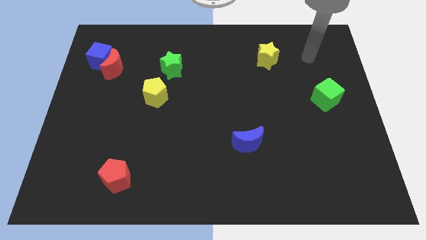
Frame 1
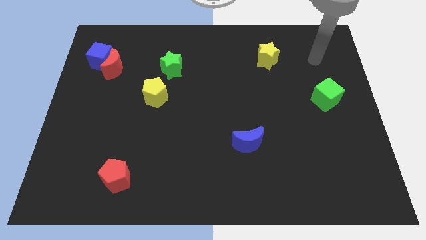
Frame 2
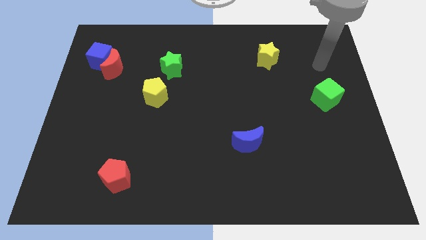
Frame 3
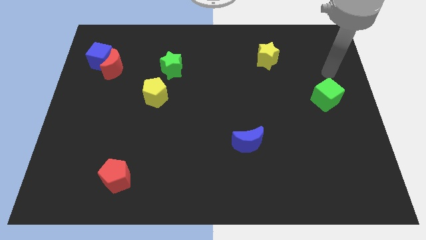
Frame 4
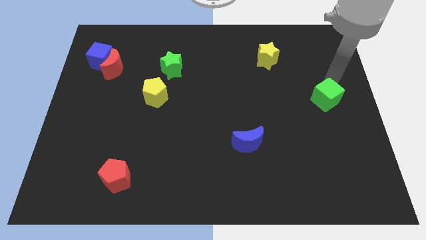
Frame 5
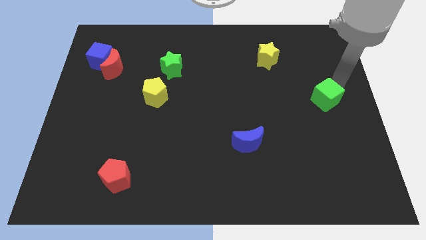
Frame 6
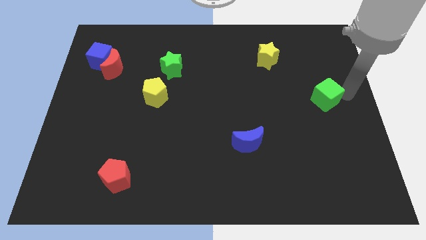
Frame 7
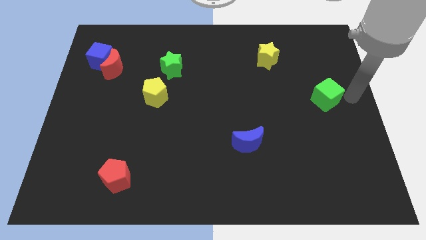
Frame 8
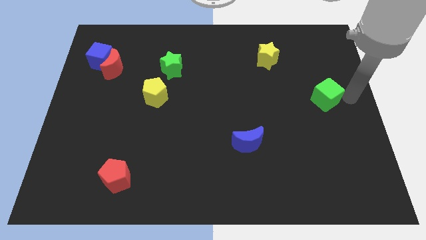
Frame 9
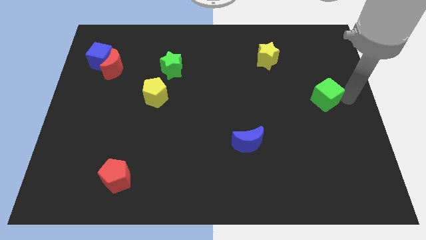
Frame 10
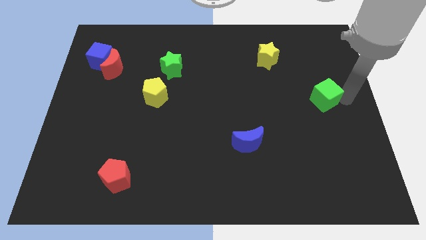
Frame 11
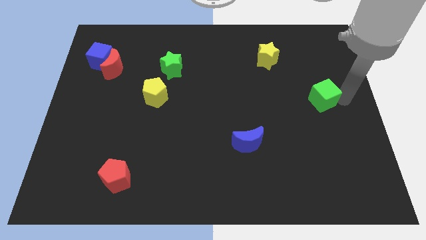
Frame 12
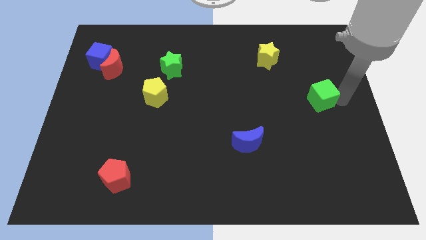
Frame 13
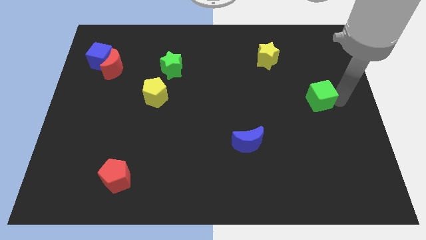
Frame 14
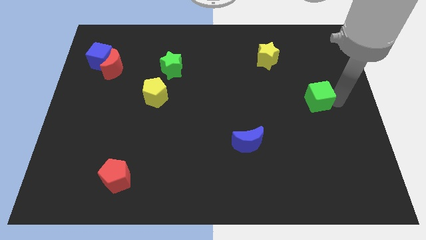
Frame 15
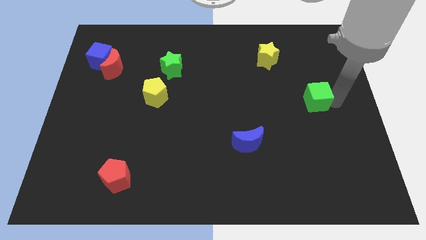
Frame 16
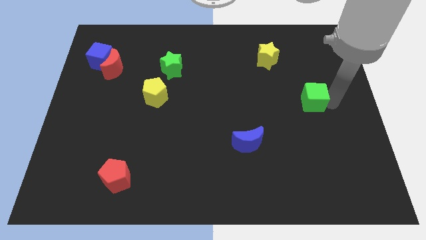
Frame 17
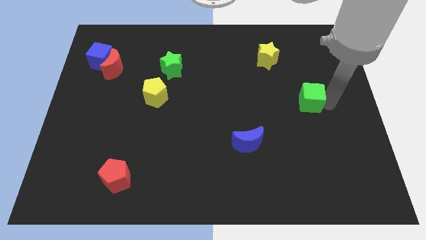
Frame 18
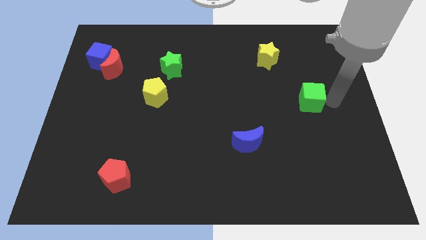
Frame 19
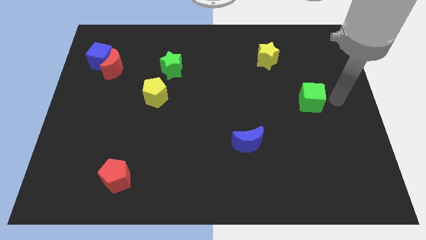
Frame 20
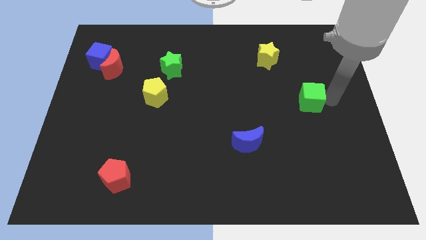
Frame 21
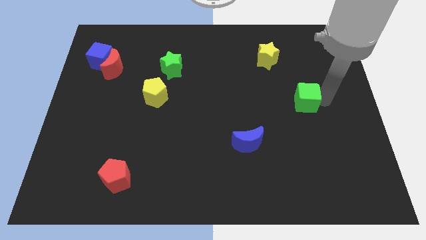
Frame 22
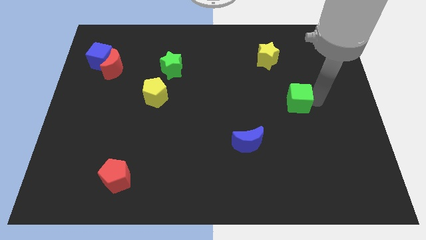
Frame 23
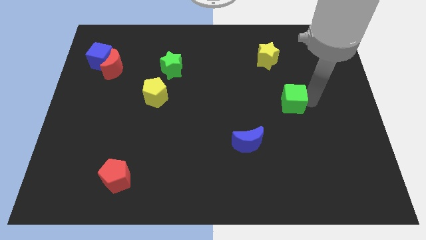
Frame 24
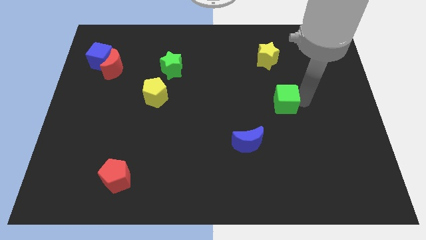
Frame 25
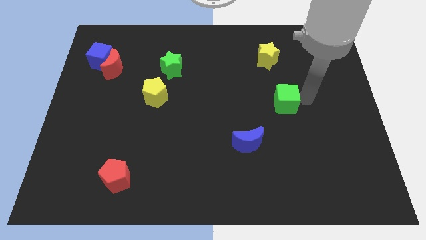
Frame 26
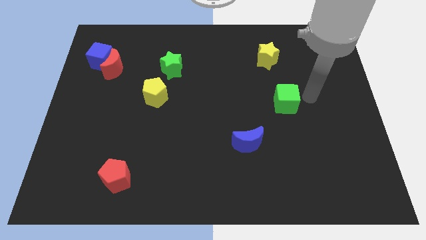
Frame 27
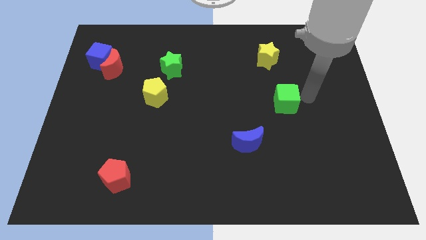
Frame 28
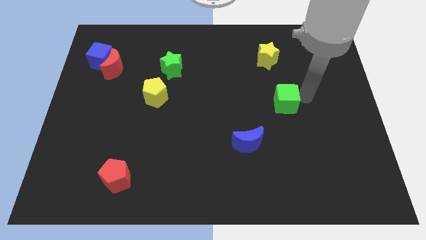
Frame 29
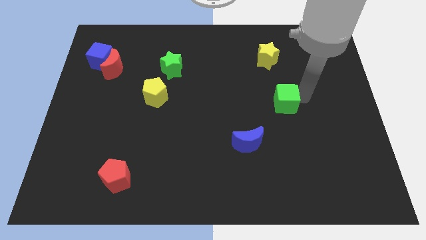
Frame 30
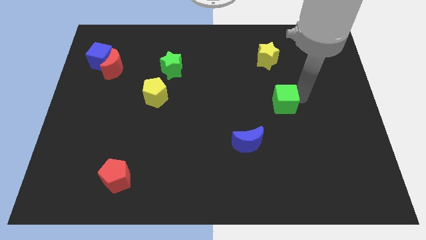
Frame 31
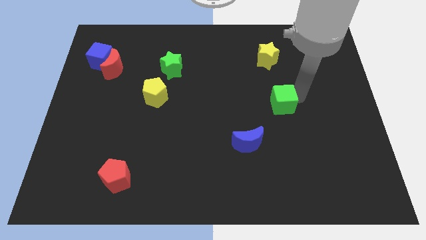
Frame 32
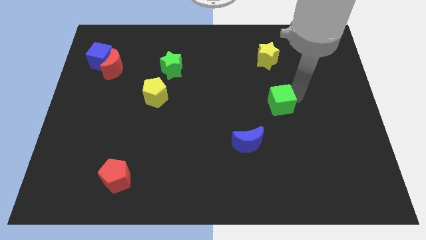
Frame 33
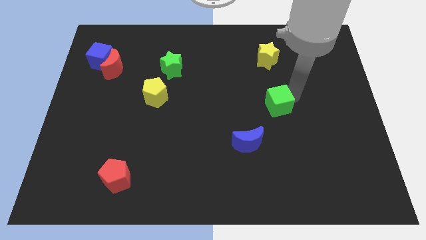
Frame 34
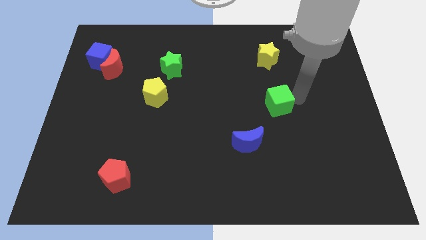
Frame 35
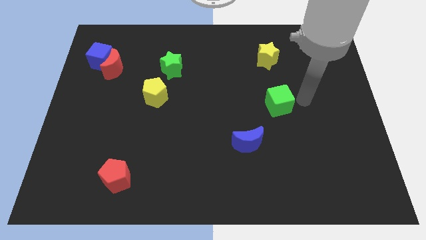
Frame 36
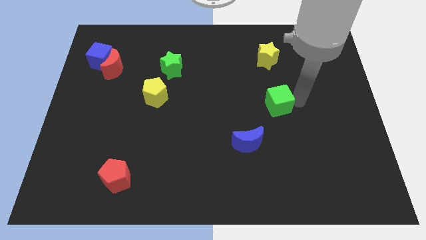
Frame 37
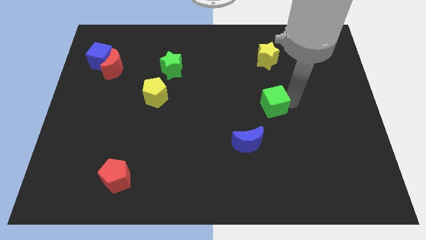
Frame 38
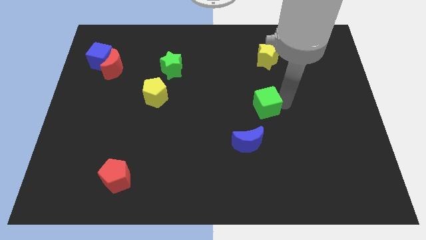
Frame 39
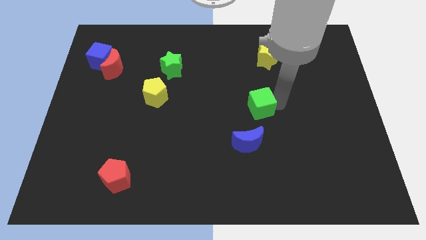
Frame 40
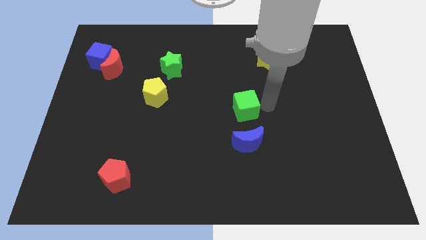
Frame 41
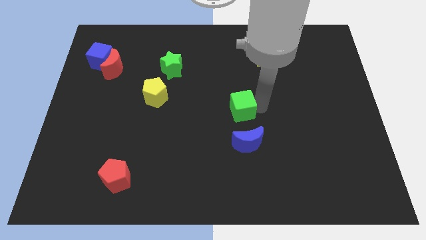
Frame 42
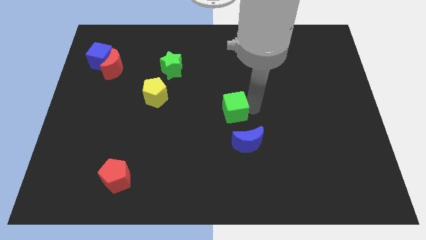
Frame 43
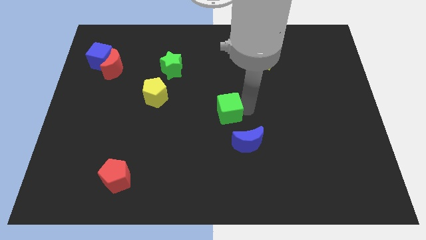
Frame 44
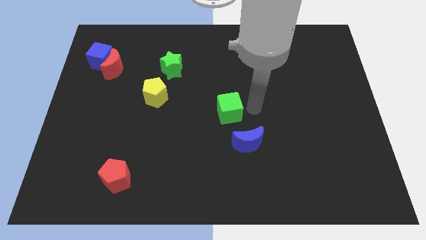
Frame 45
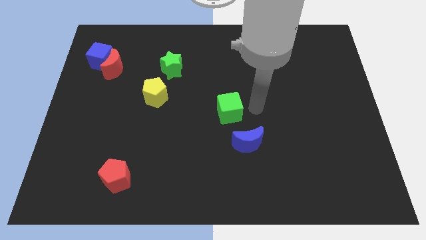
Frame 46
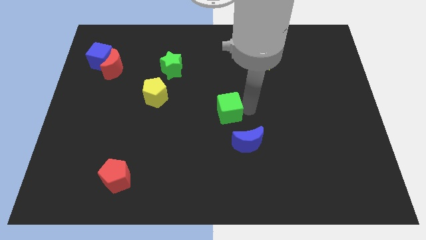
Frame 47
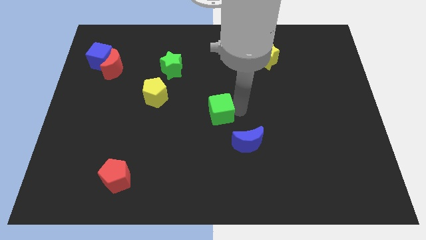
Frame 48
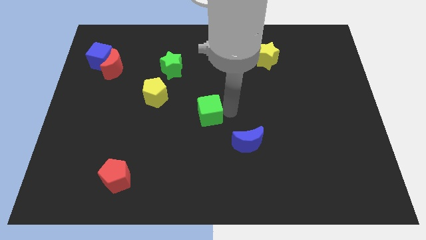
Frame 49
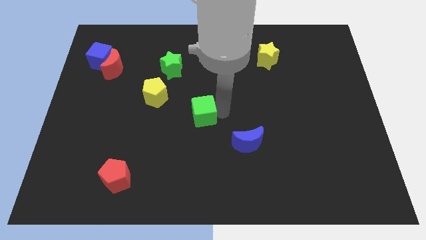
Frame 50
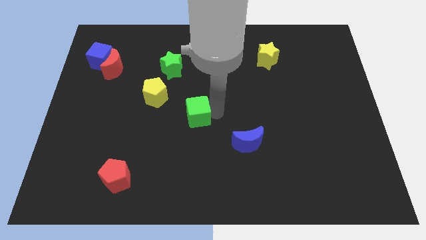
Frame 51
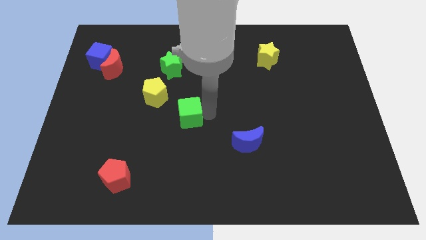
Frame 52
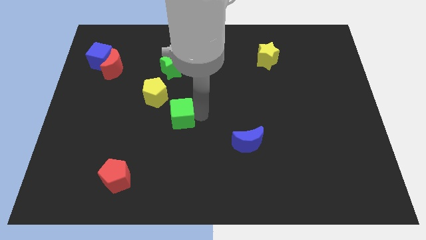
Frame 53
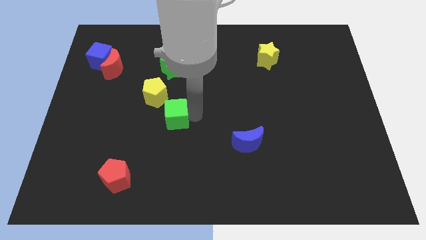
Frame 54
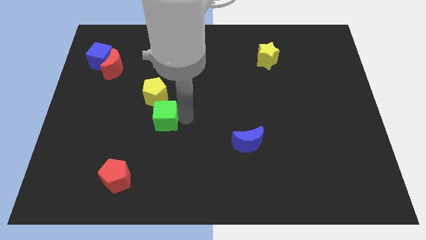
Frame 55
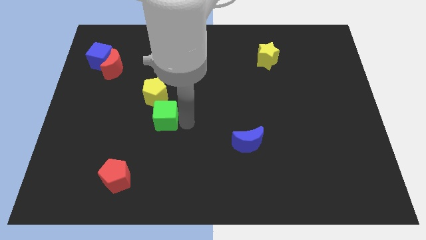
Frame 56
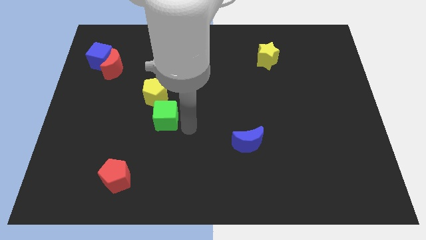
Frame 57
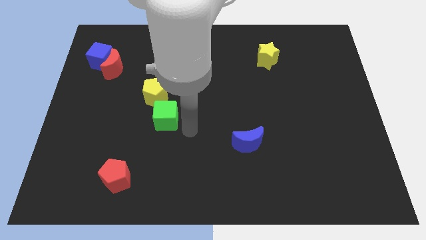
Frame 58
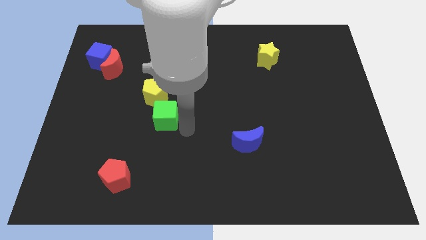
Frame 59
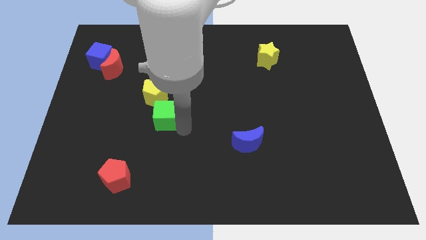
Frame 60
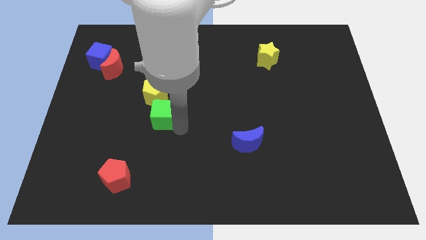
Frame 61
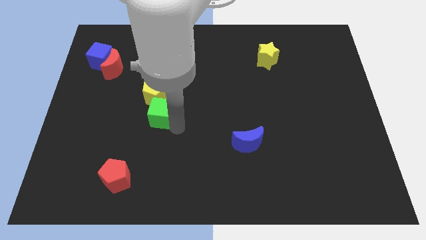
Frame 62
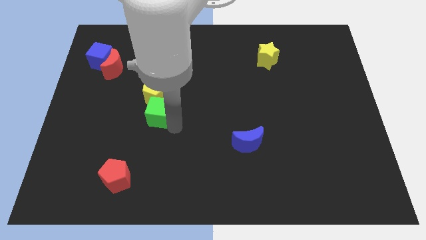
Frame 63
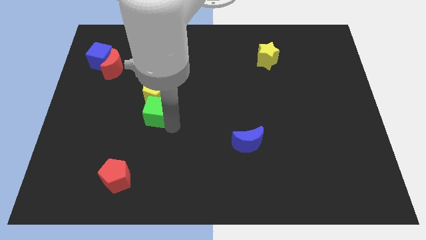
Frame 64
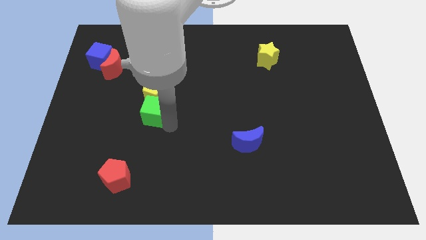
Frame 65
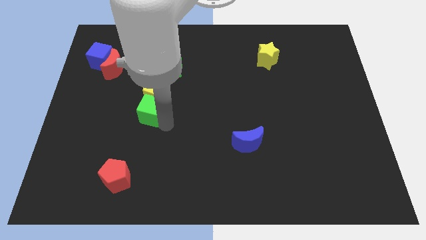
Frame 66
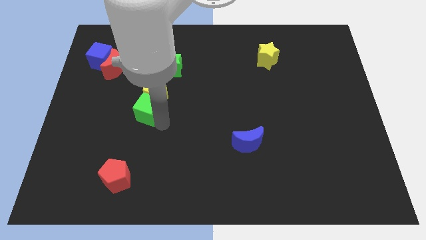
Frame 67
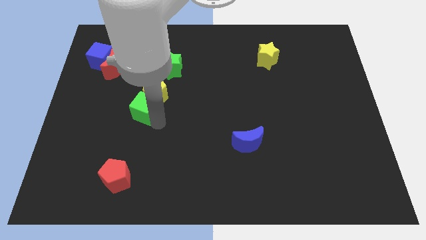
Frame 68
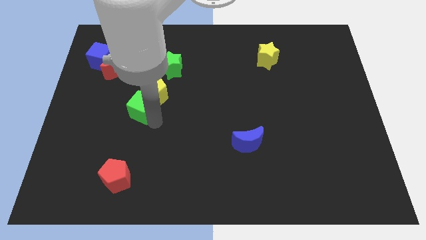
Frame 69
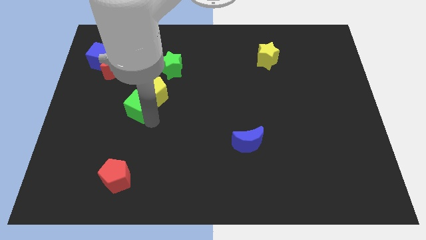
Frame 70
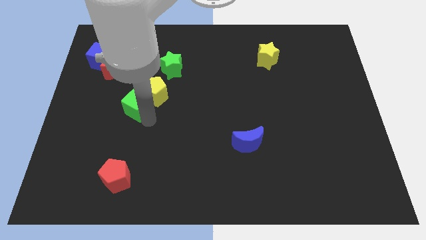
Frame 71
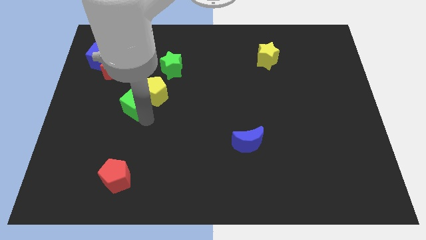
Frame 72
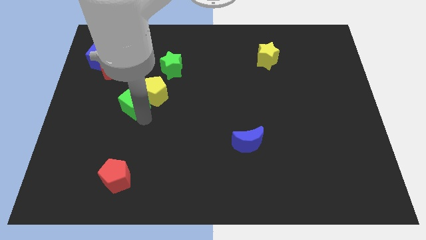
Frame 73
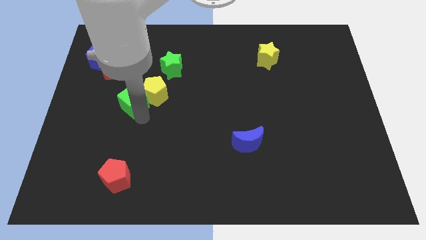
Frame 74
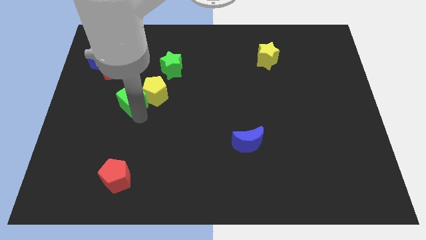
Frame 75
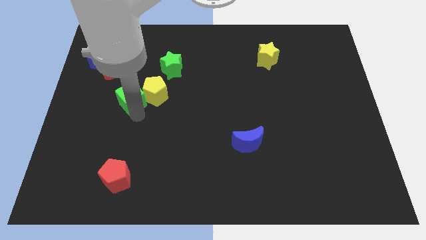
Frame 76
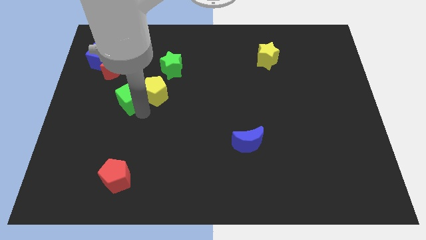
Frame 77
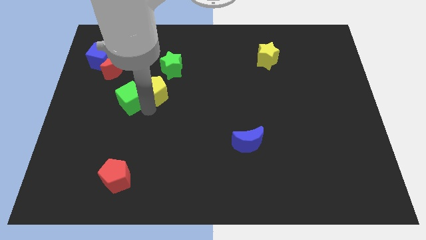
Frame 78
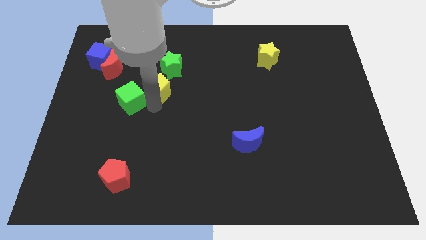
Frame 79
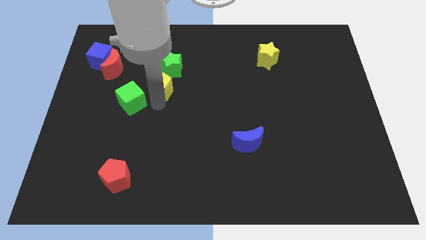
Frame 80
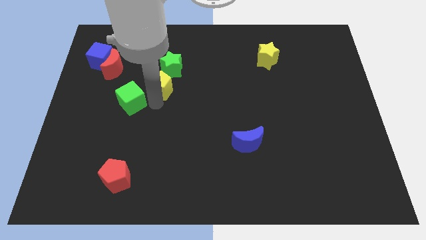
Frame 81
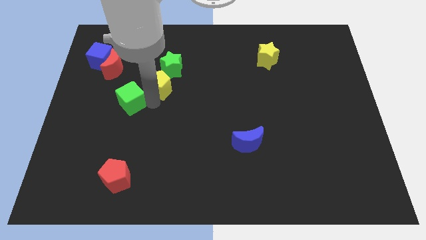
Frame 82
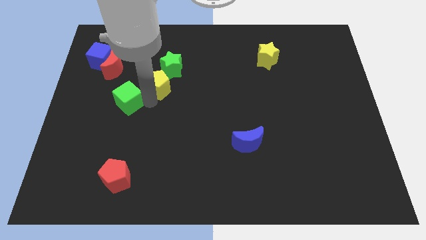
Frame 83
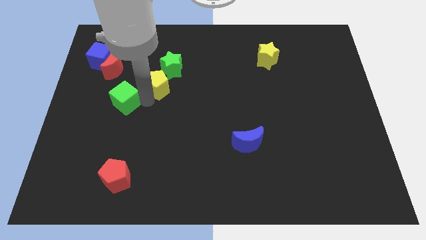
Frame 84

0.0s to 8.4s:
push the green cube to the bottom side of the red moon
